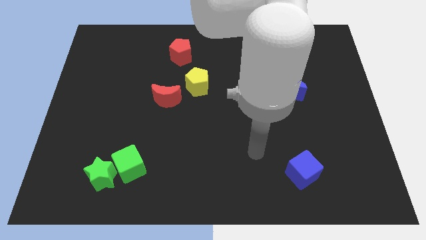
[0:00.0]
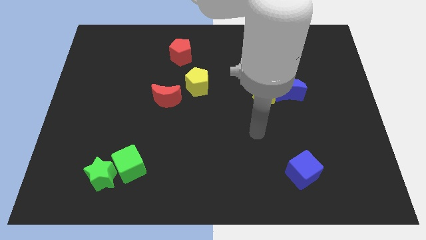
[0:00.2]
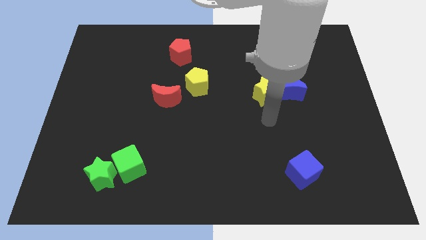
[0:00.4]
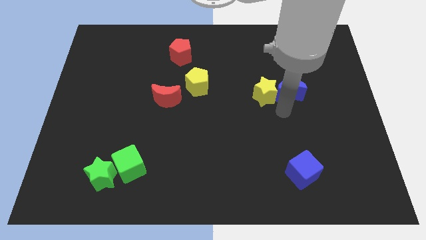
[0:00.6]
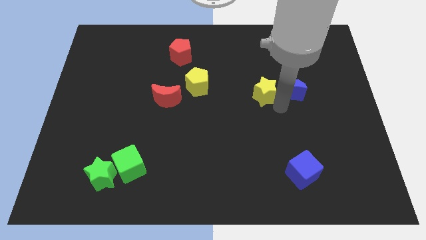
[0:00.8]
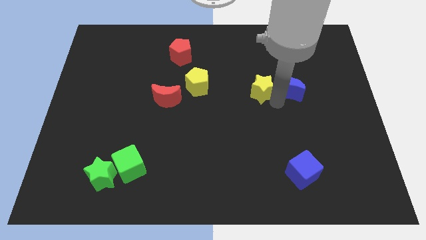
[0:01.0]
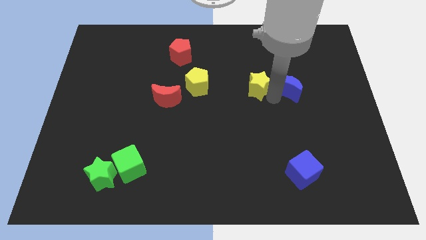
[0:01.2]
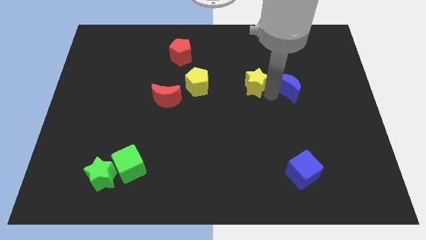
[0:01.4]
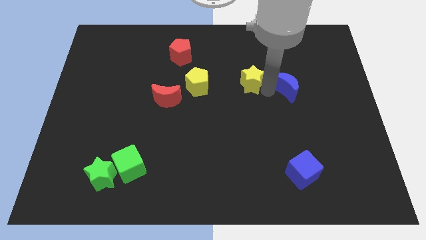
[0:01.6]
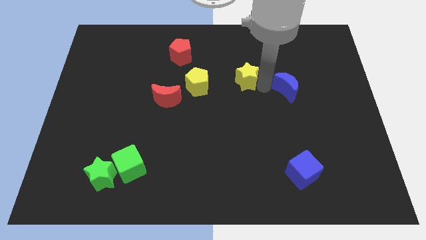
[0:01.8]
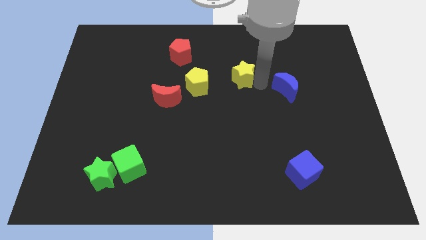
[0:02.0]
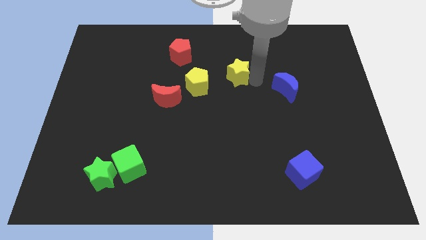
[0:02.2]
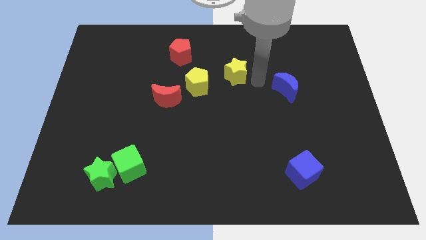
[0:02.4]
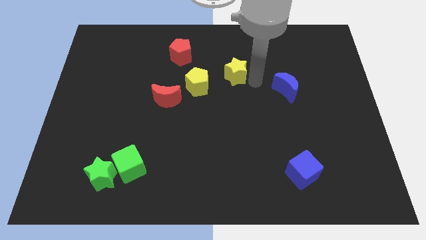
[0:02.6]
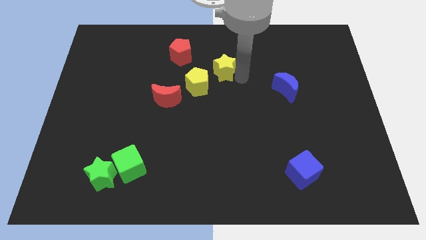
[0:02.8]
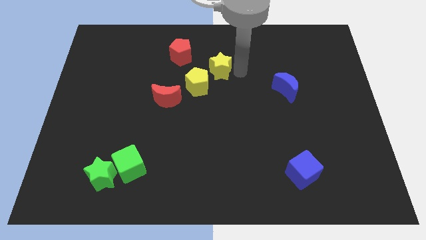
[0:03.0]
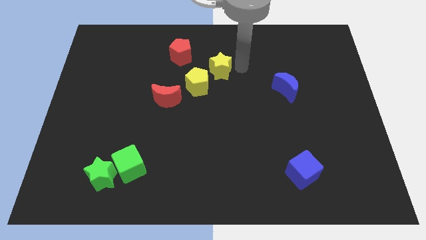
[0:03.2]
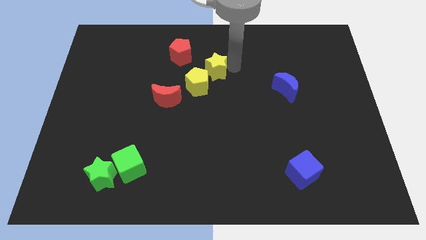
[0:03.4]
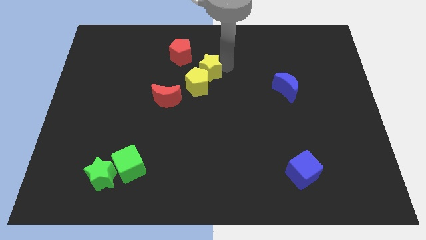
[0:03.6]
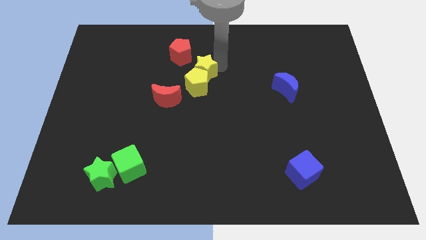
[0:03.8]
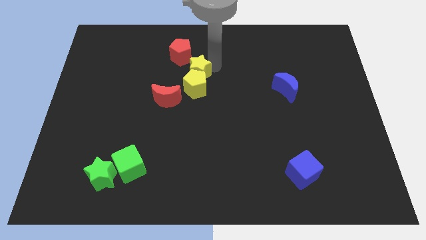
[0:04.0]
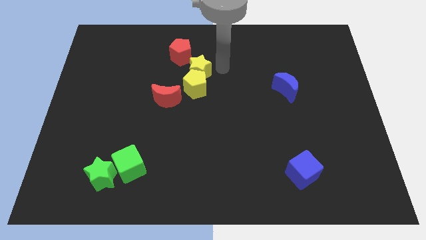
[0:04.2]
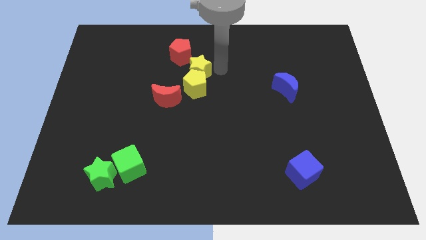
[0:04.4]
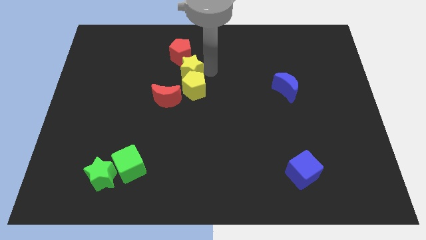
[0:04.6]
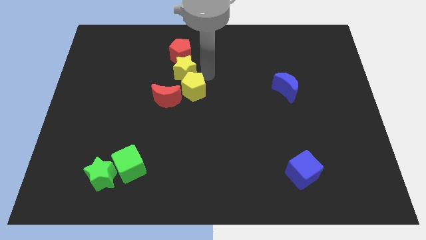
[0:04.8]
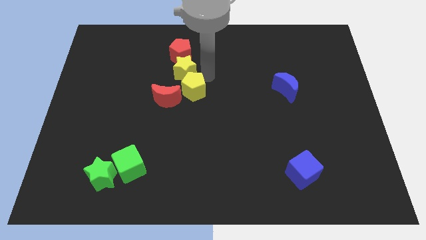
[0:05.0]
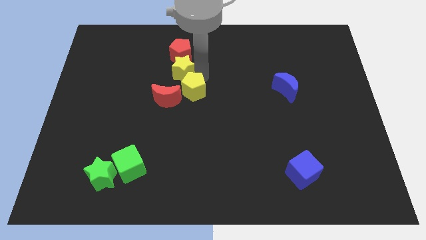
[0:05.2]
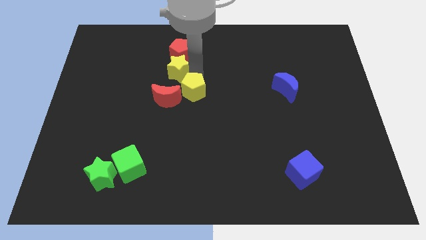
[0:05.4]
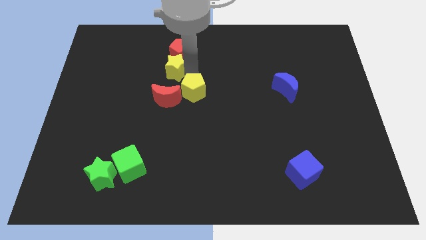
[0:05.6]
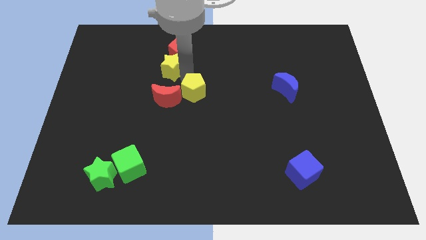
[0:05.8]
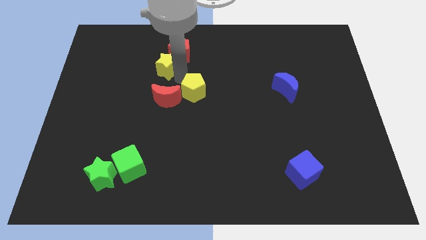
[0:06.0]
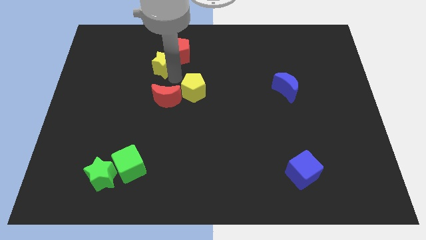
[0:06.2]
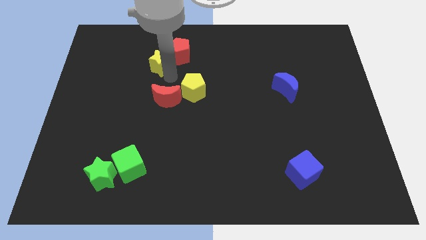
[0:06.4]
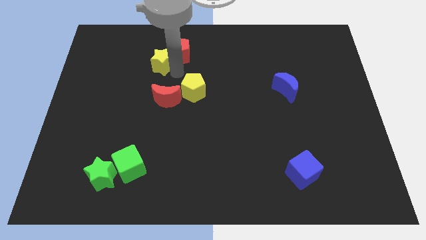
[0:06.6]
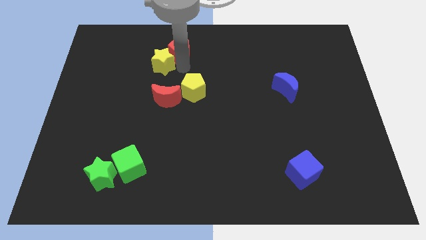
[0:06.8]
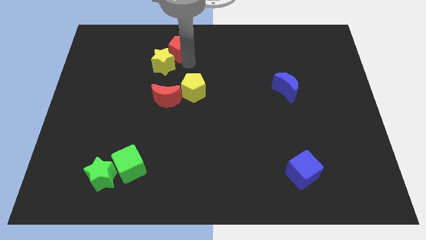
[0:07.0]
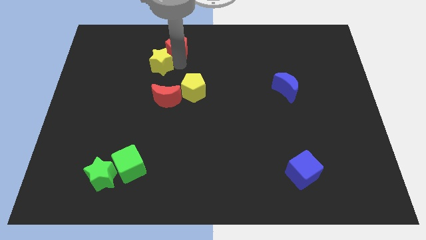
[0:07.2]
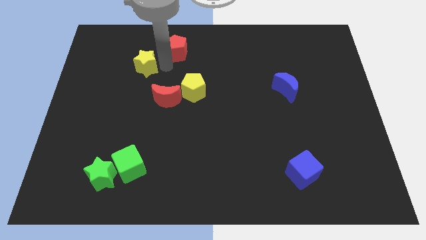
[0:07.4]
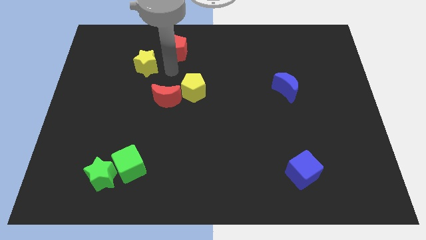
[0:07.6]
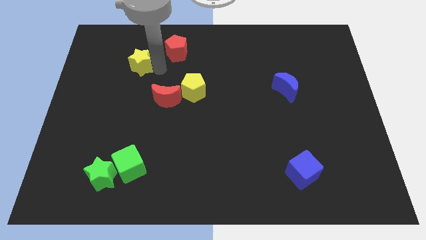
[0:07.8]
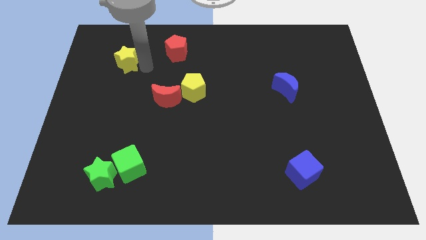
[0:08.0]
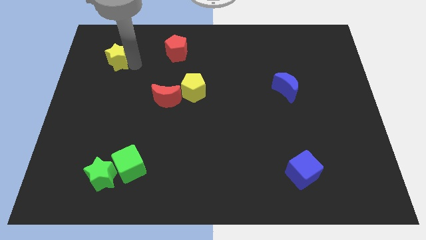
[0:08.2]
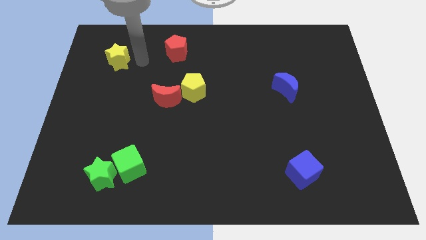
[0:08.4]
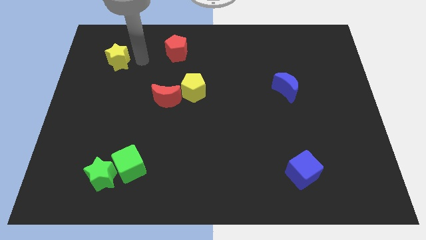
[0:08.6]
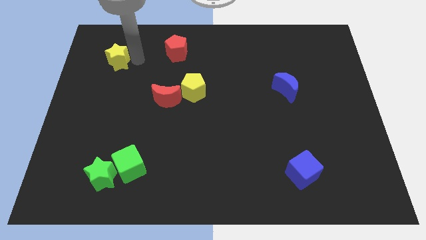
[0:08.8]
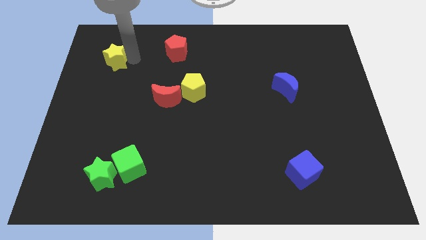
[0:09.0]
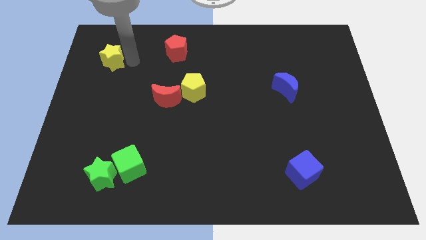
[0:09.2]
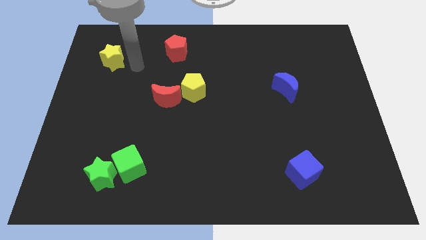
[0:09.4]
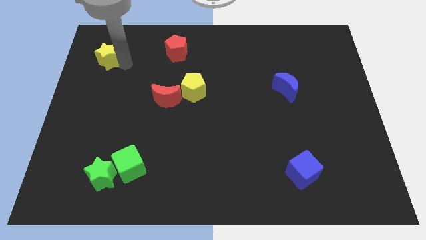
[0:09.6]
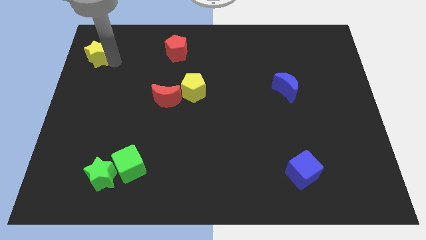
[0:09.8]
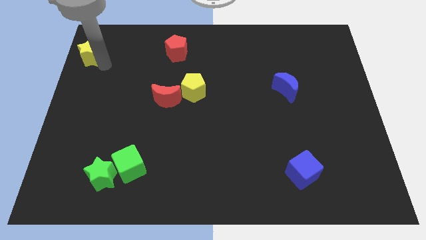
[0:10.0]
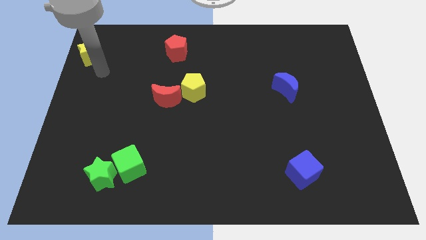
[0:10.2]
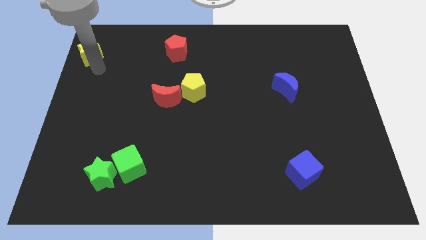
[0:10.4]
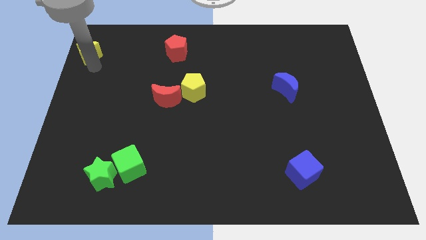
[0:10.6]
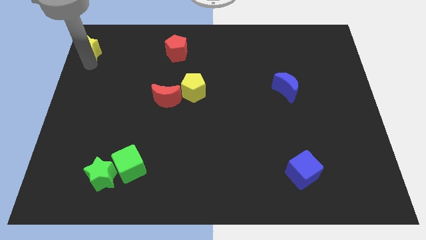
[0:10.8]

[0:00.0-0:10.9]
move the yellow star to the top left

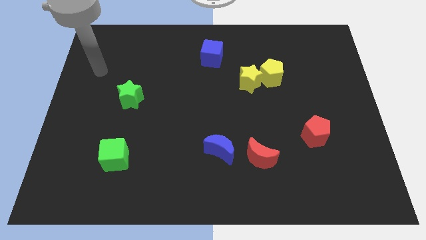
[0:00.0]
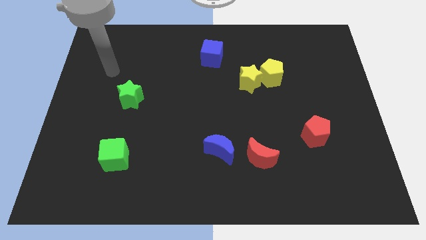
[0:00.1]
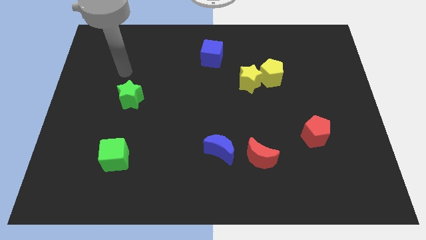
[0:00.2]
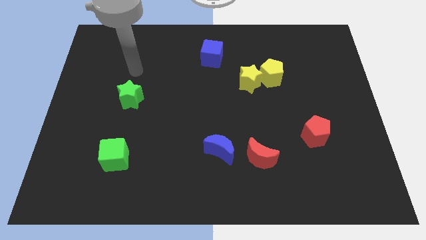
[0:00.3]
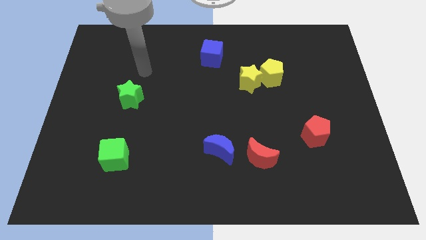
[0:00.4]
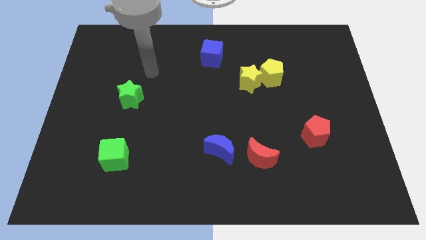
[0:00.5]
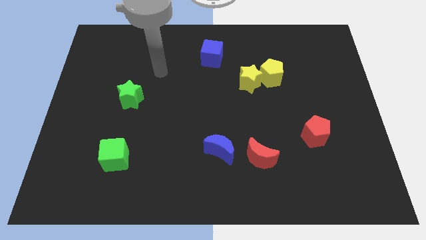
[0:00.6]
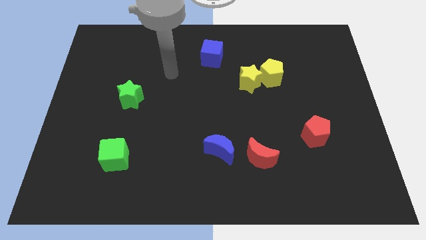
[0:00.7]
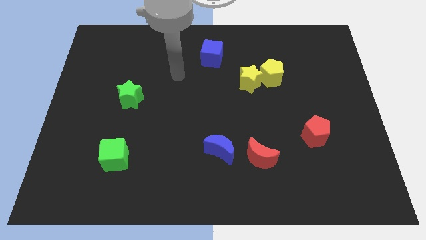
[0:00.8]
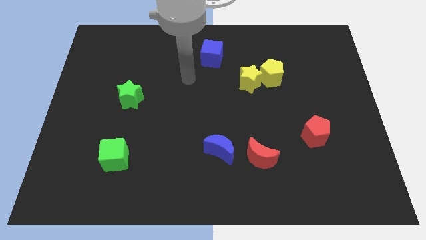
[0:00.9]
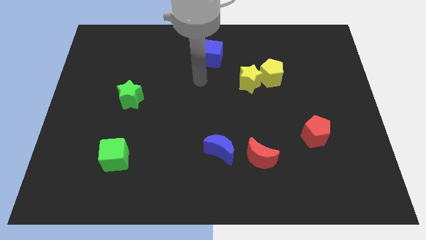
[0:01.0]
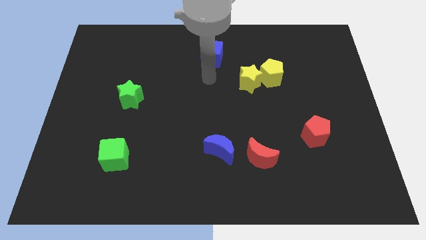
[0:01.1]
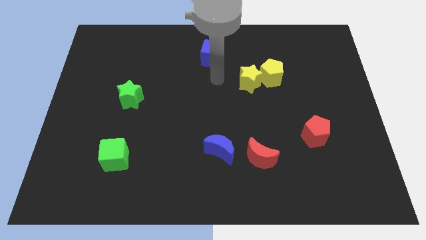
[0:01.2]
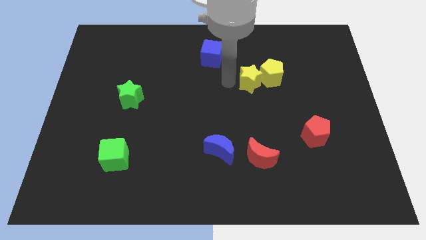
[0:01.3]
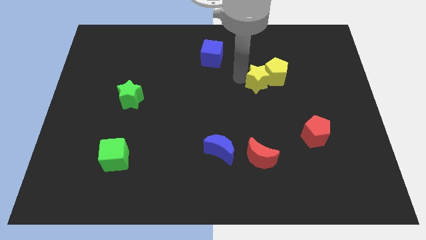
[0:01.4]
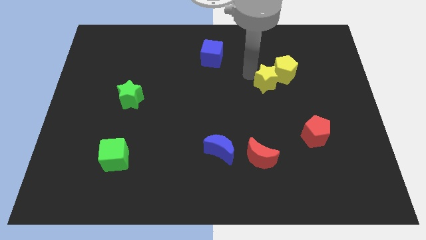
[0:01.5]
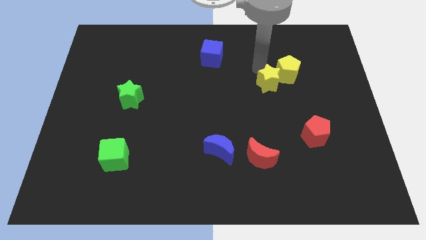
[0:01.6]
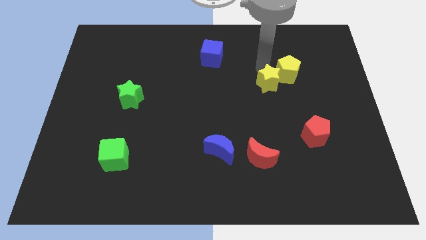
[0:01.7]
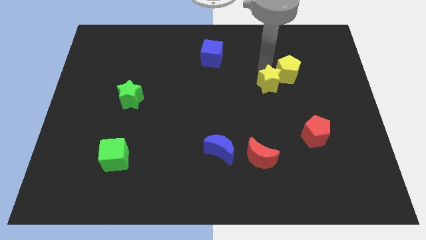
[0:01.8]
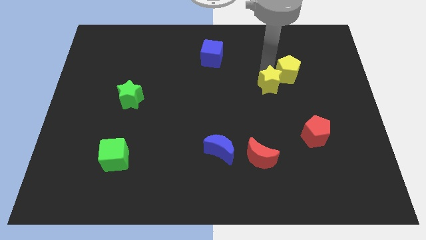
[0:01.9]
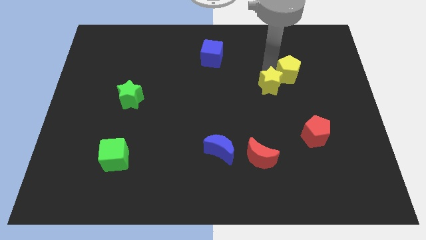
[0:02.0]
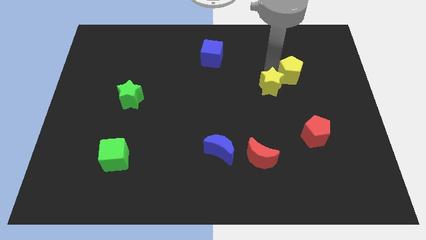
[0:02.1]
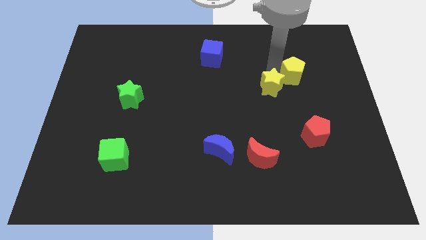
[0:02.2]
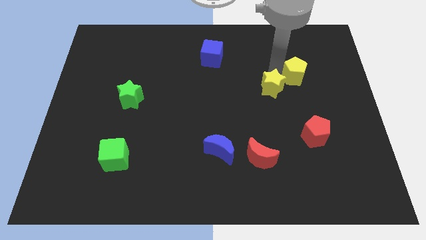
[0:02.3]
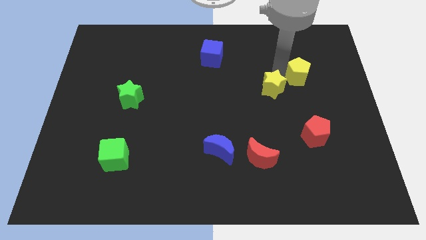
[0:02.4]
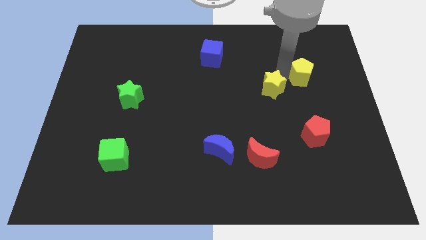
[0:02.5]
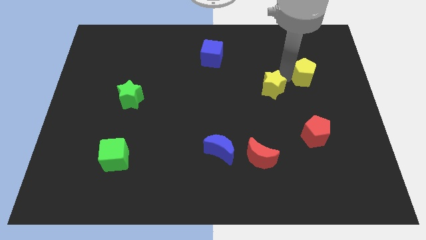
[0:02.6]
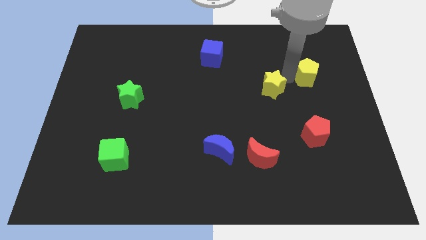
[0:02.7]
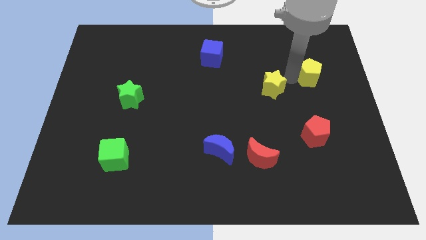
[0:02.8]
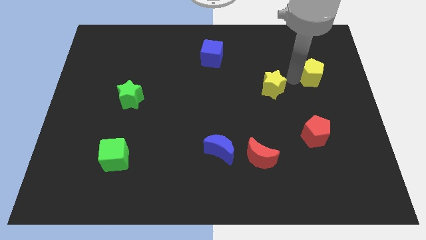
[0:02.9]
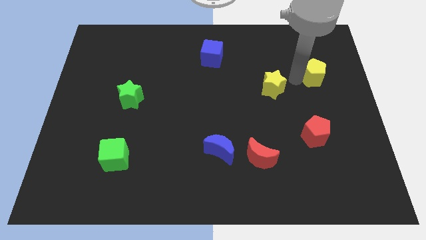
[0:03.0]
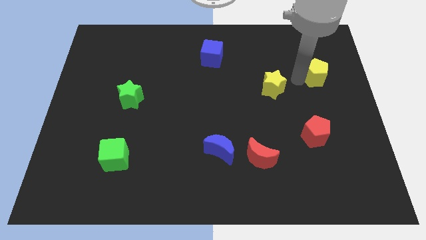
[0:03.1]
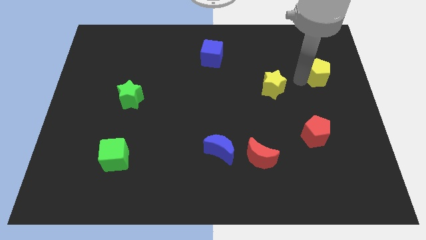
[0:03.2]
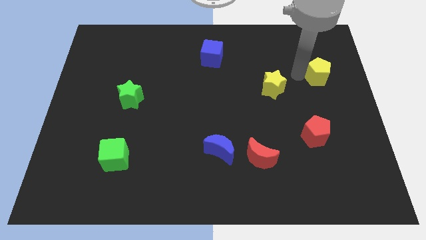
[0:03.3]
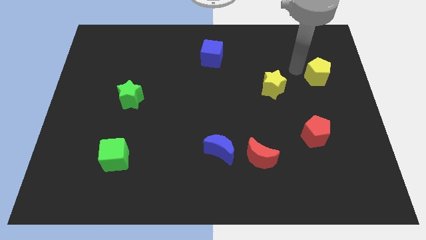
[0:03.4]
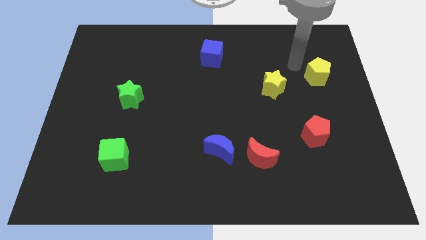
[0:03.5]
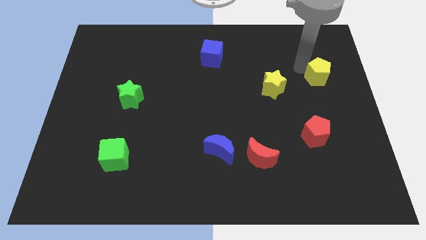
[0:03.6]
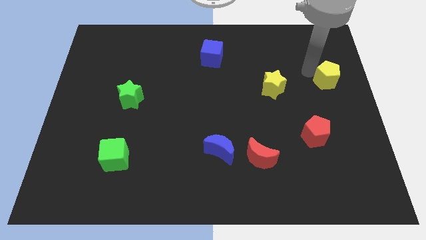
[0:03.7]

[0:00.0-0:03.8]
move the yellow pentagon to the center right
